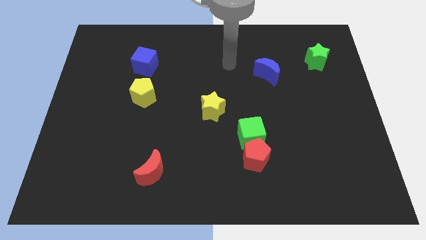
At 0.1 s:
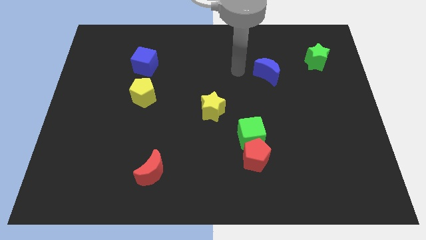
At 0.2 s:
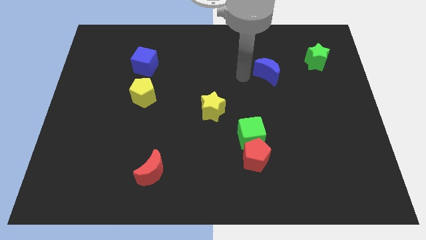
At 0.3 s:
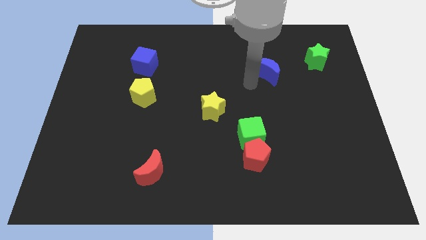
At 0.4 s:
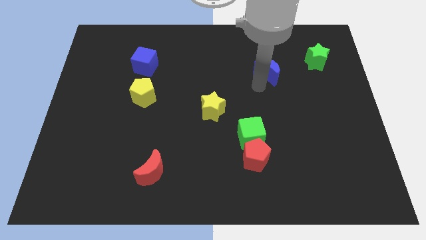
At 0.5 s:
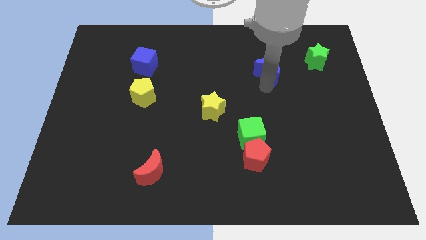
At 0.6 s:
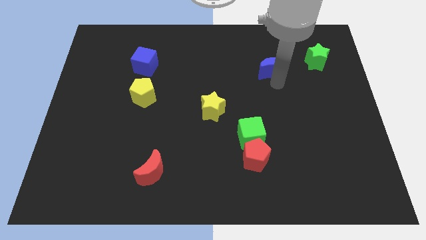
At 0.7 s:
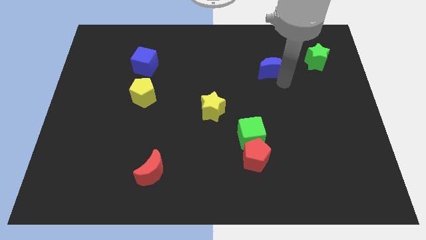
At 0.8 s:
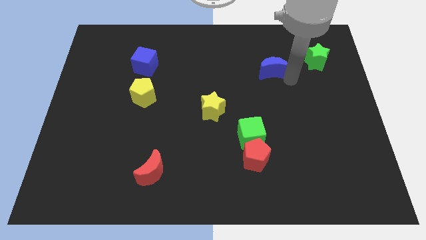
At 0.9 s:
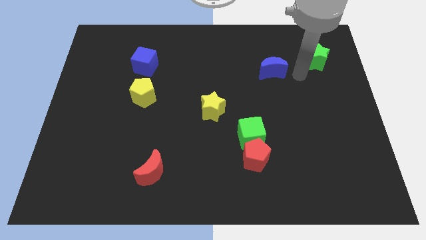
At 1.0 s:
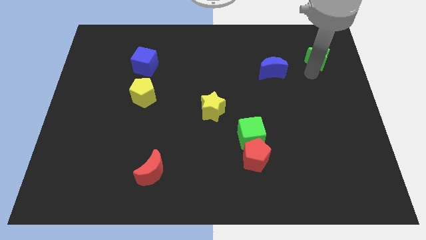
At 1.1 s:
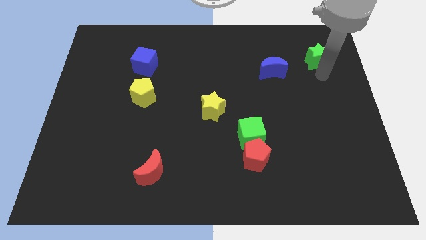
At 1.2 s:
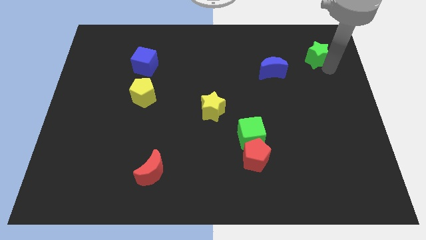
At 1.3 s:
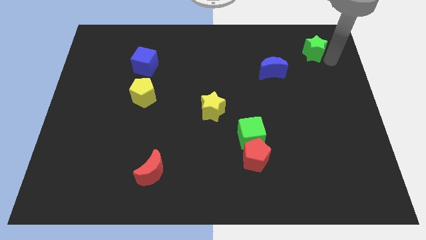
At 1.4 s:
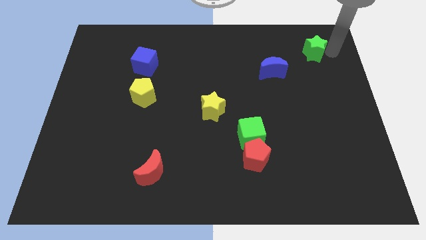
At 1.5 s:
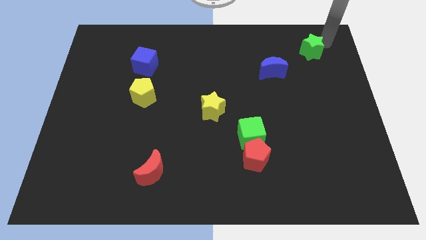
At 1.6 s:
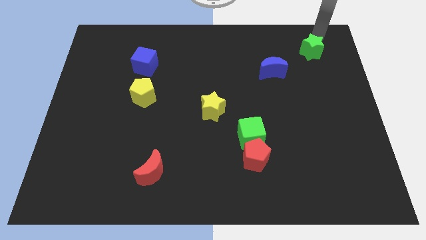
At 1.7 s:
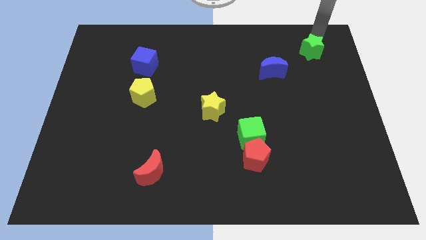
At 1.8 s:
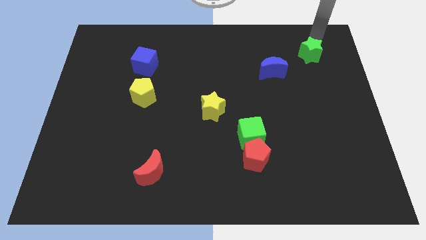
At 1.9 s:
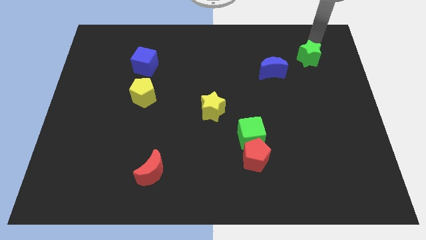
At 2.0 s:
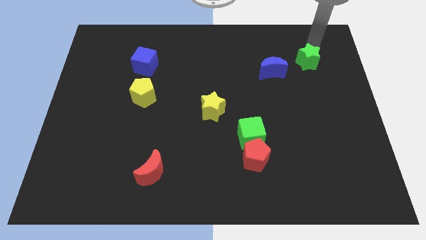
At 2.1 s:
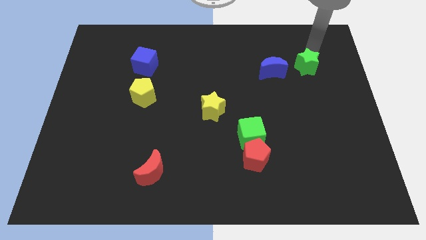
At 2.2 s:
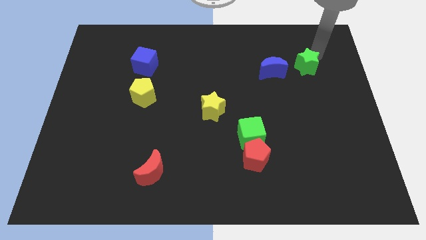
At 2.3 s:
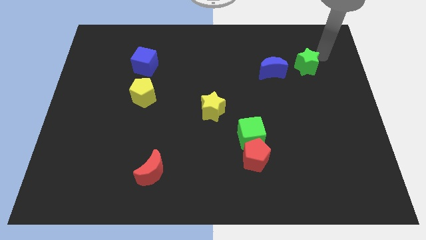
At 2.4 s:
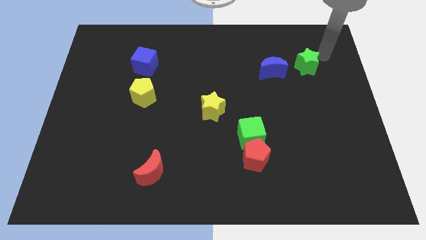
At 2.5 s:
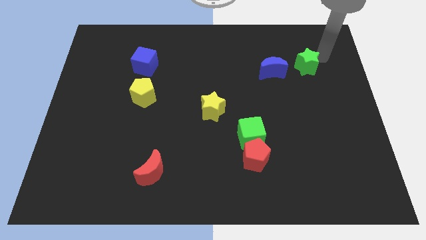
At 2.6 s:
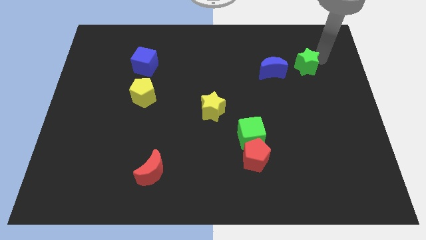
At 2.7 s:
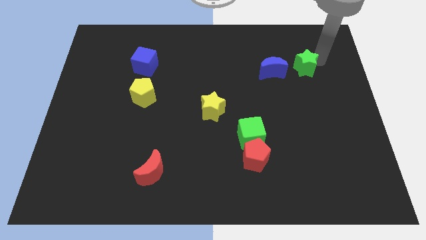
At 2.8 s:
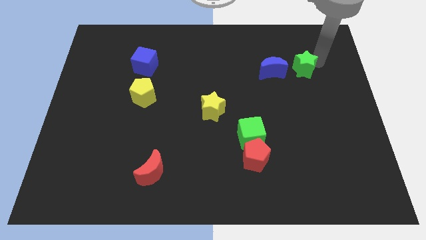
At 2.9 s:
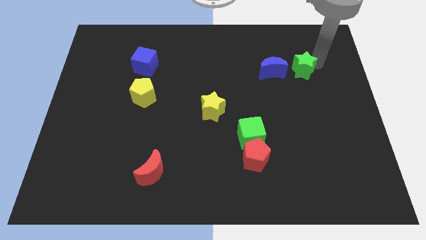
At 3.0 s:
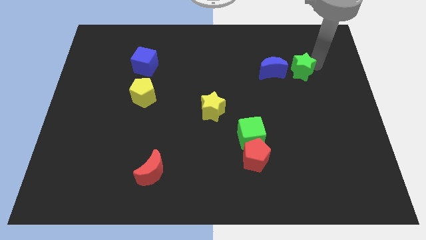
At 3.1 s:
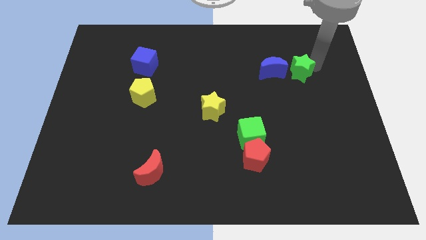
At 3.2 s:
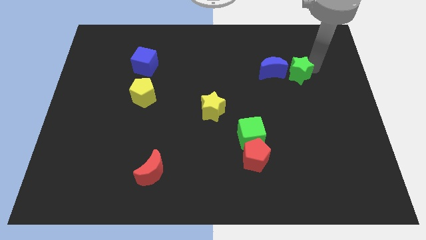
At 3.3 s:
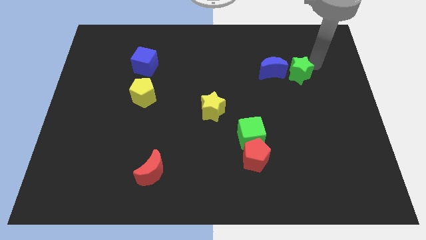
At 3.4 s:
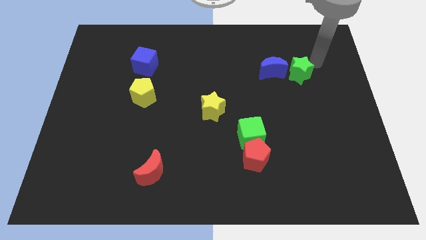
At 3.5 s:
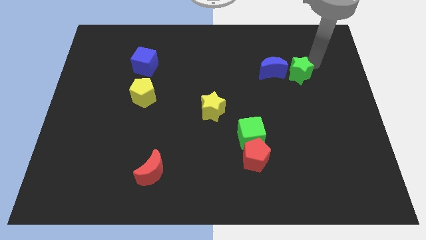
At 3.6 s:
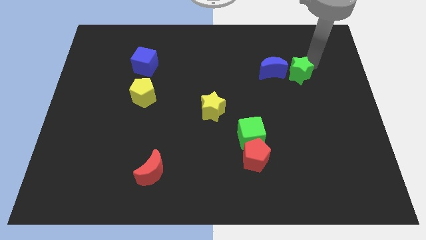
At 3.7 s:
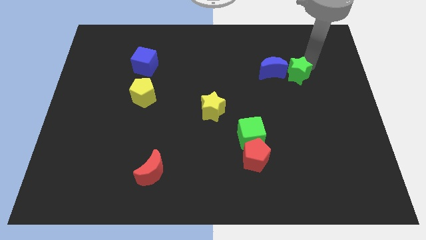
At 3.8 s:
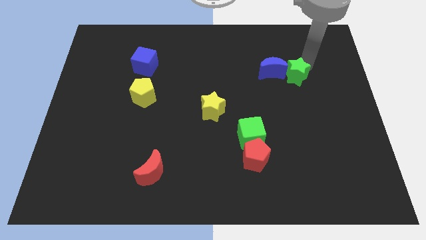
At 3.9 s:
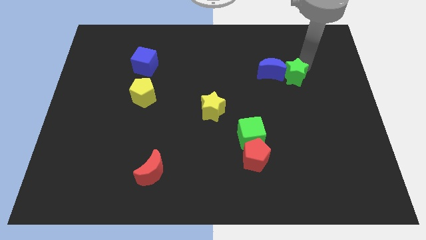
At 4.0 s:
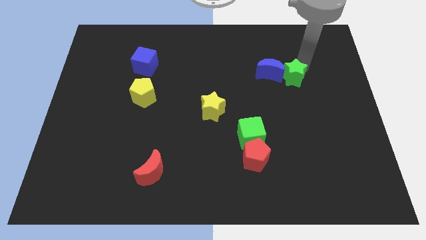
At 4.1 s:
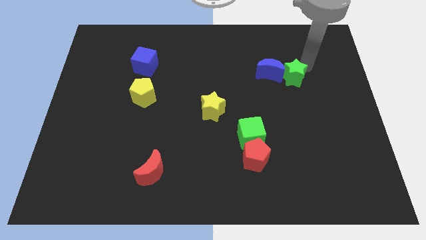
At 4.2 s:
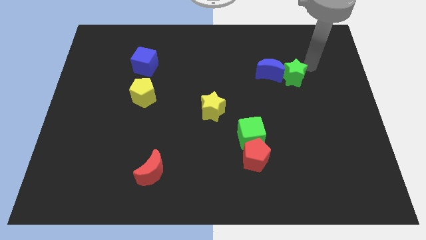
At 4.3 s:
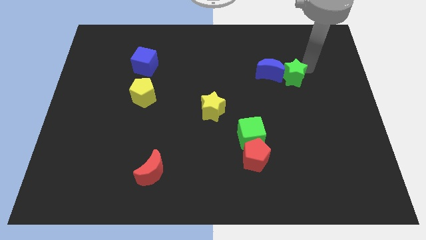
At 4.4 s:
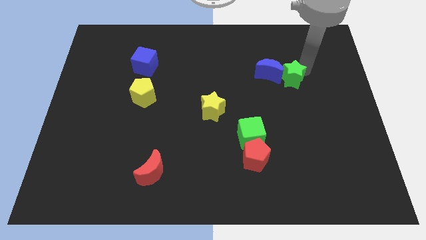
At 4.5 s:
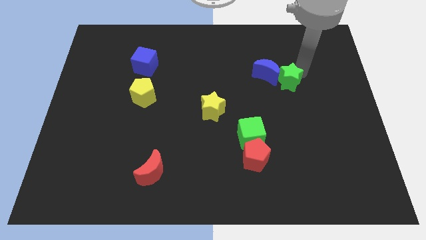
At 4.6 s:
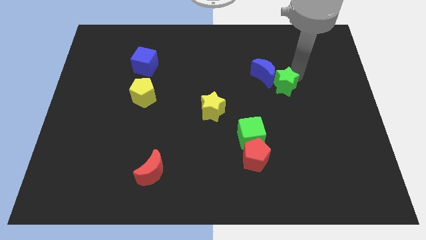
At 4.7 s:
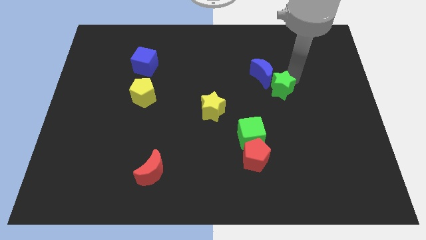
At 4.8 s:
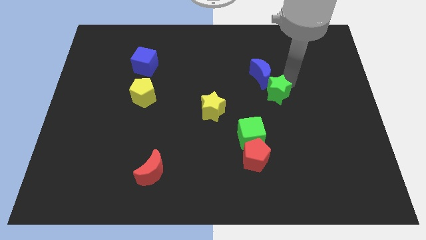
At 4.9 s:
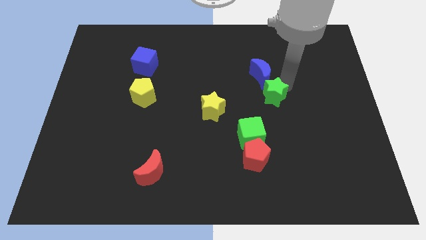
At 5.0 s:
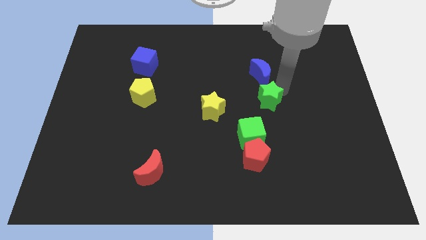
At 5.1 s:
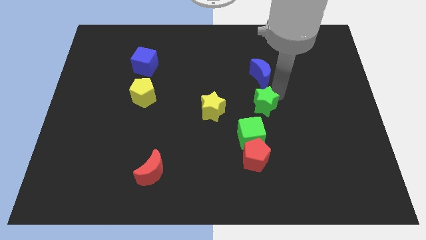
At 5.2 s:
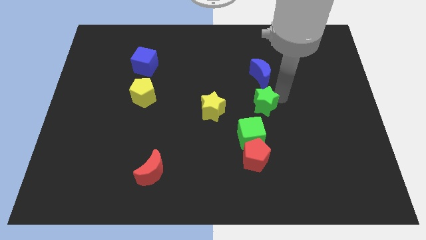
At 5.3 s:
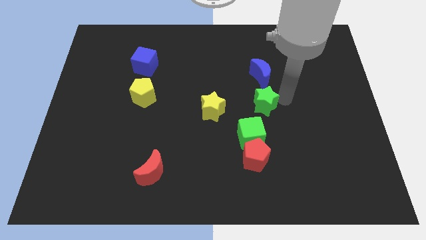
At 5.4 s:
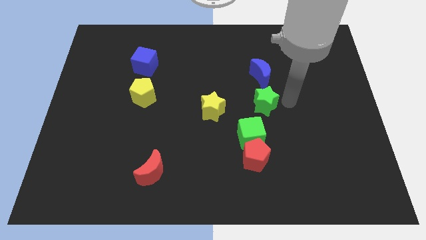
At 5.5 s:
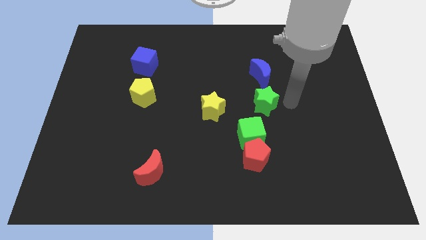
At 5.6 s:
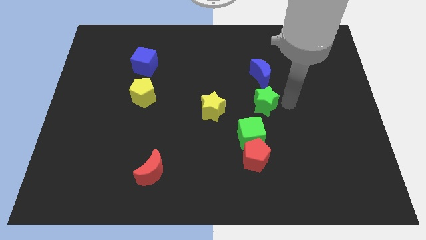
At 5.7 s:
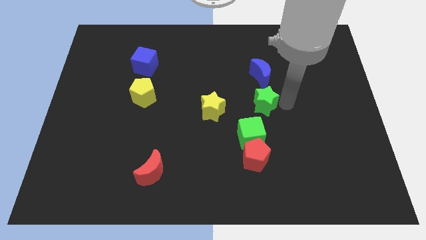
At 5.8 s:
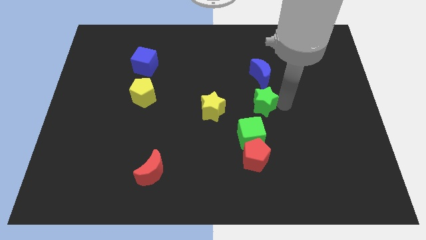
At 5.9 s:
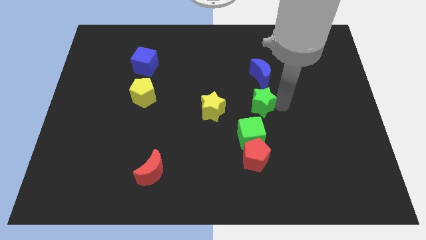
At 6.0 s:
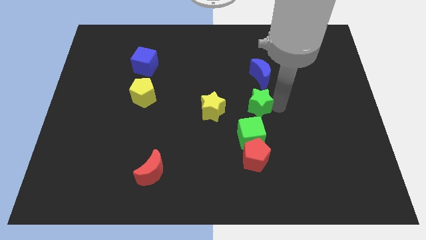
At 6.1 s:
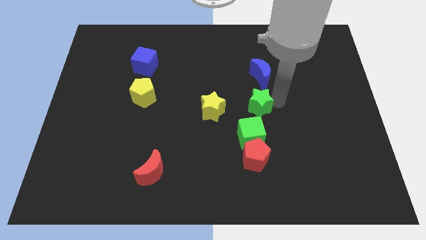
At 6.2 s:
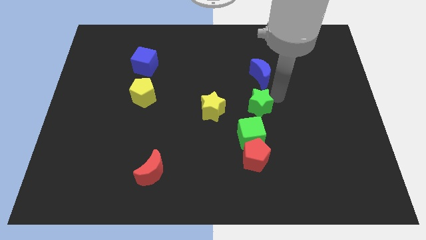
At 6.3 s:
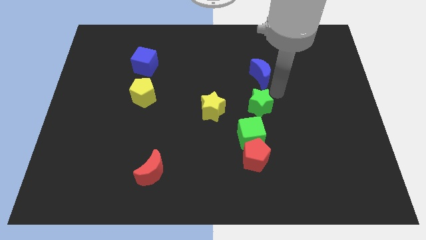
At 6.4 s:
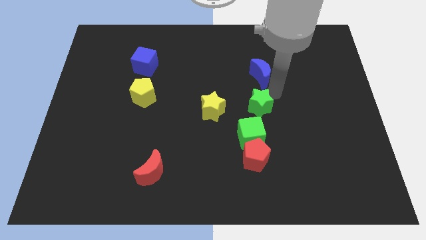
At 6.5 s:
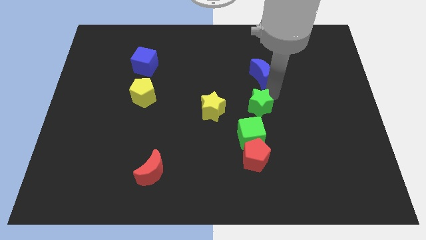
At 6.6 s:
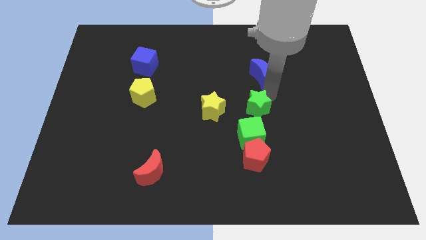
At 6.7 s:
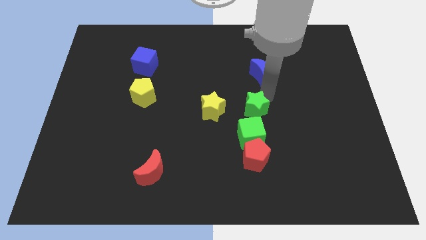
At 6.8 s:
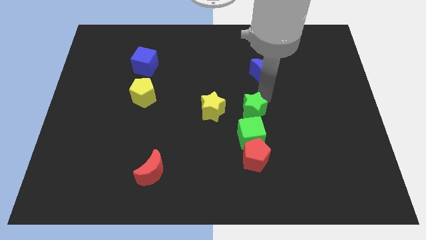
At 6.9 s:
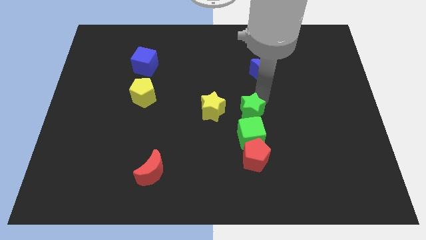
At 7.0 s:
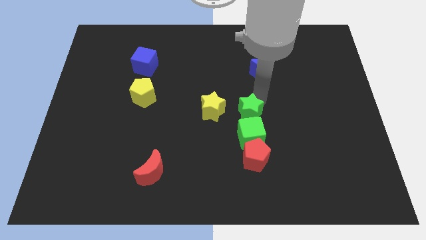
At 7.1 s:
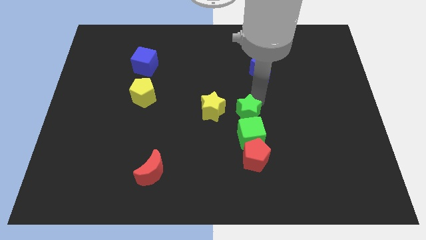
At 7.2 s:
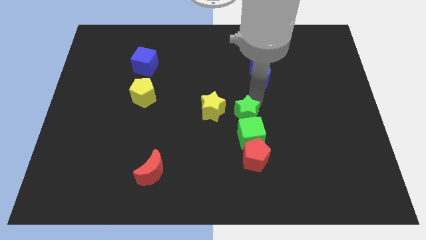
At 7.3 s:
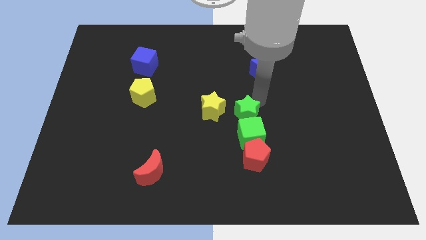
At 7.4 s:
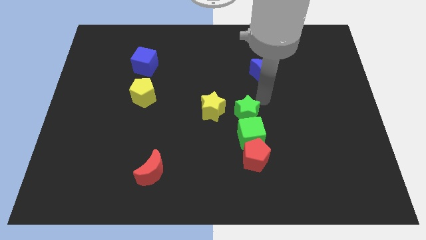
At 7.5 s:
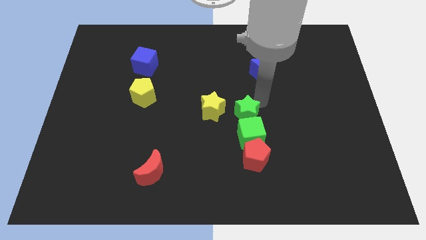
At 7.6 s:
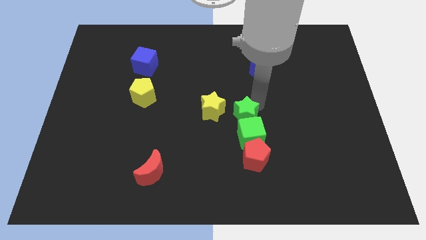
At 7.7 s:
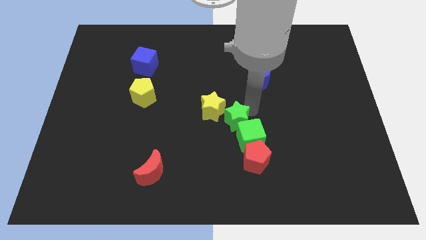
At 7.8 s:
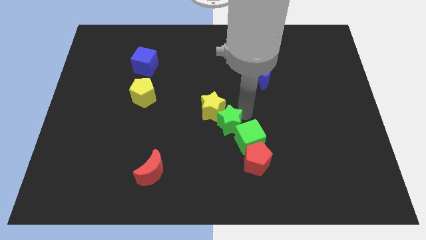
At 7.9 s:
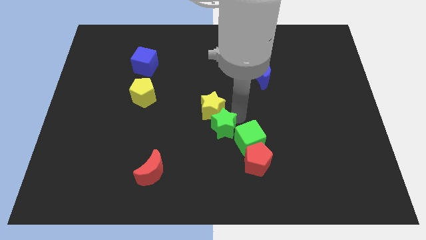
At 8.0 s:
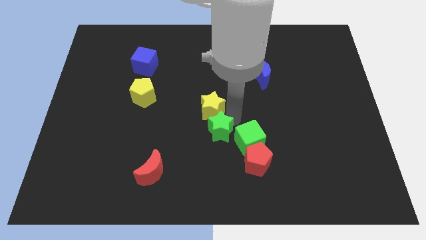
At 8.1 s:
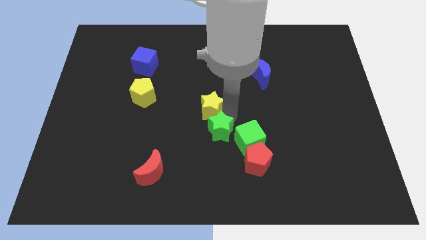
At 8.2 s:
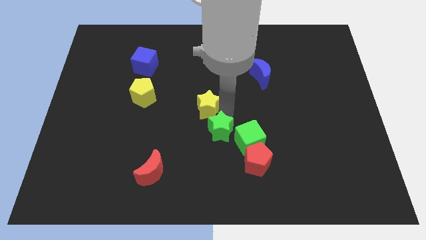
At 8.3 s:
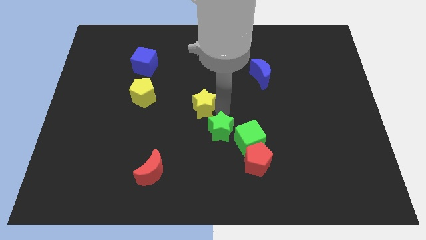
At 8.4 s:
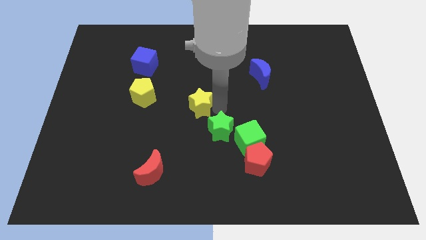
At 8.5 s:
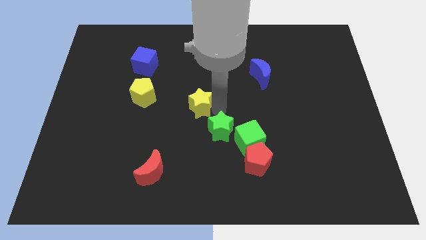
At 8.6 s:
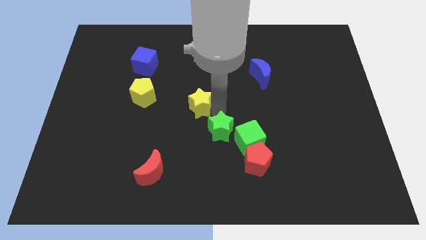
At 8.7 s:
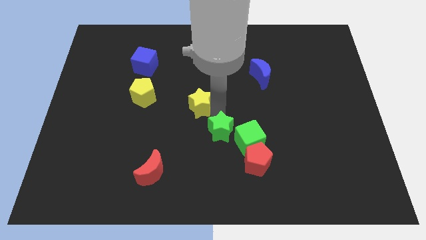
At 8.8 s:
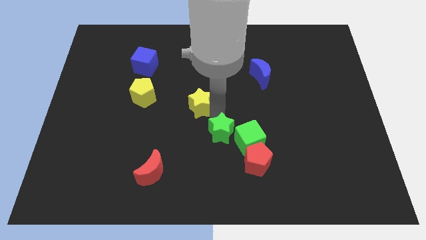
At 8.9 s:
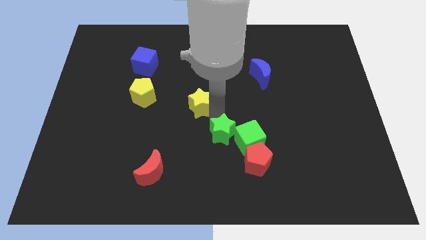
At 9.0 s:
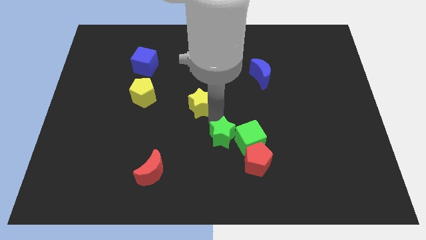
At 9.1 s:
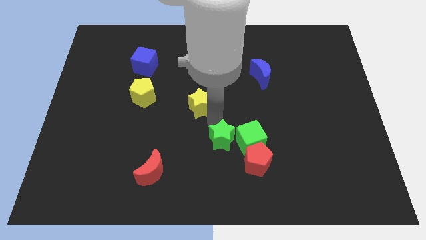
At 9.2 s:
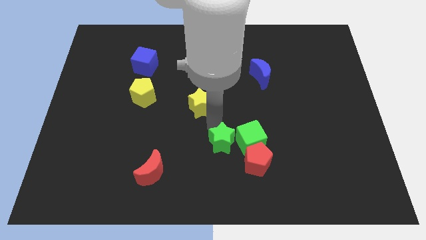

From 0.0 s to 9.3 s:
push the green star left of the red pentagon
